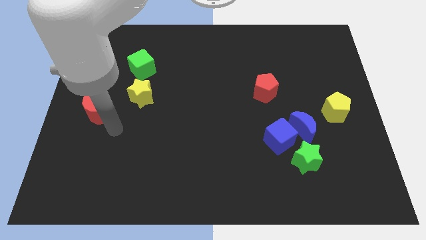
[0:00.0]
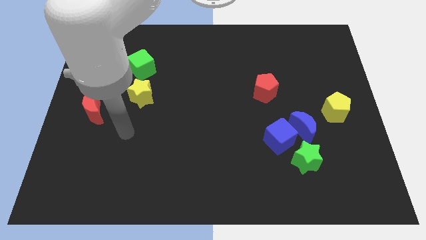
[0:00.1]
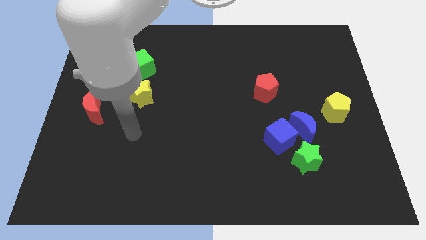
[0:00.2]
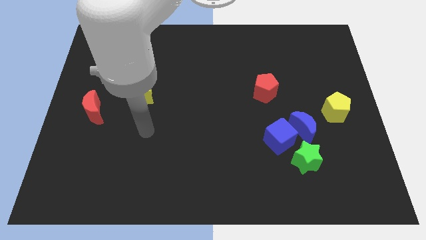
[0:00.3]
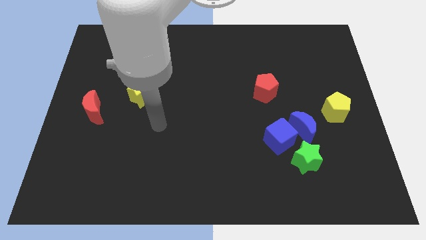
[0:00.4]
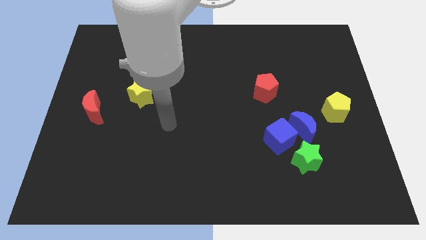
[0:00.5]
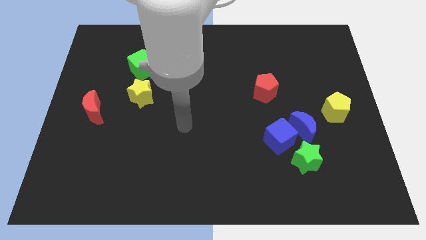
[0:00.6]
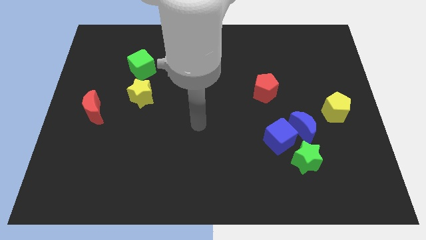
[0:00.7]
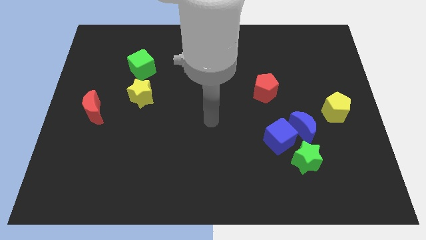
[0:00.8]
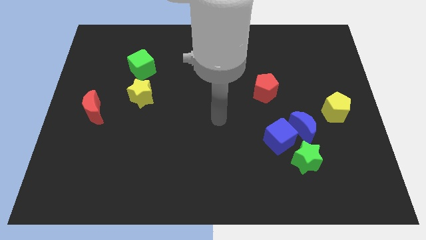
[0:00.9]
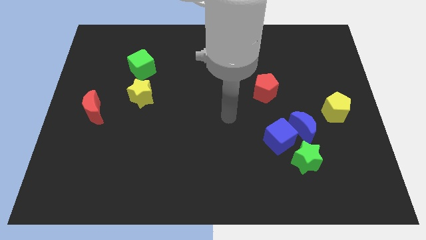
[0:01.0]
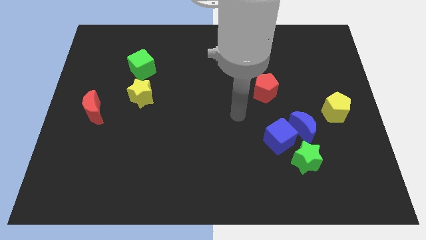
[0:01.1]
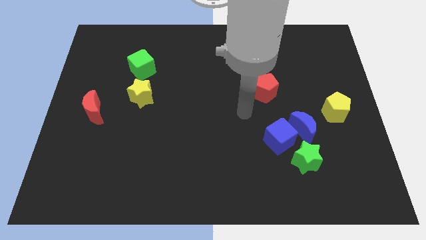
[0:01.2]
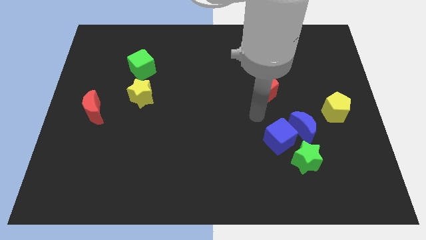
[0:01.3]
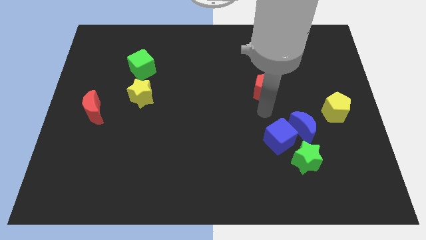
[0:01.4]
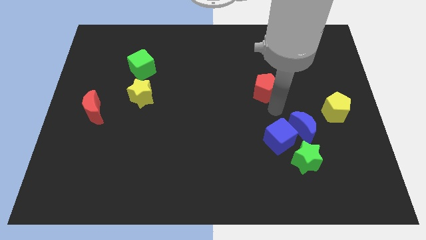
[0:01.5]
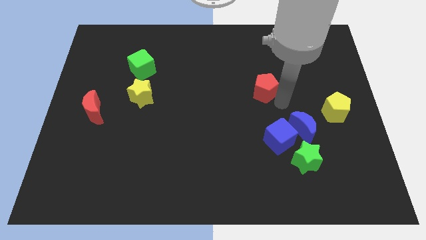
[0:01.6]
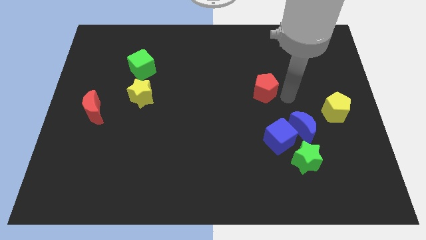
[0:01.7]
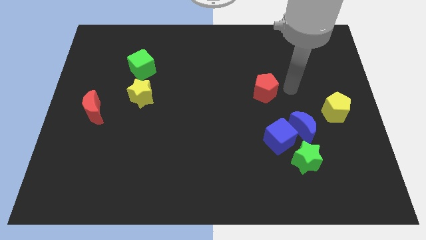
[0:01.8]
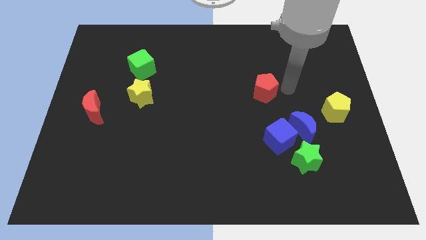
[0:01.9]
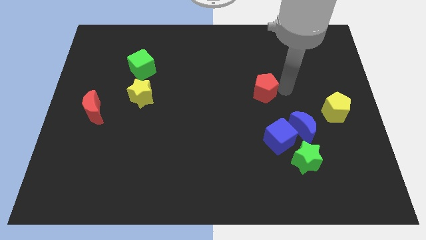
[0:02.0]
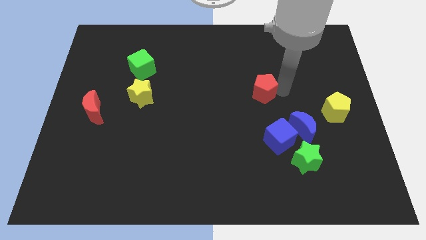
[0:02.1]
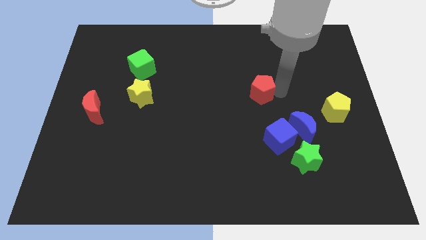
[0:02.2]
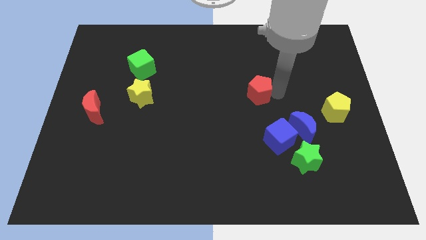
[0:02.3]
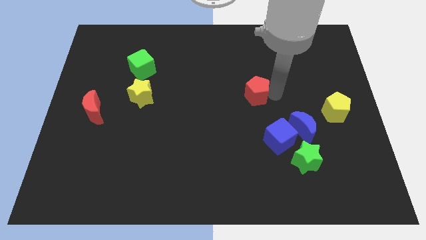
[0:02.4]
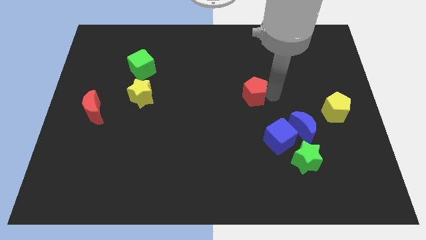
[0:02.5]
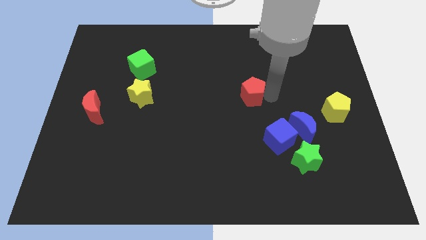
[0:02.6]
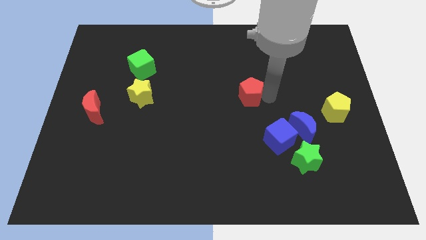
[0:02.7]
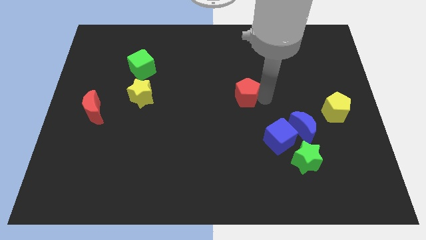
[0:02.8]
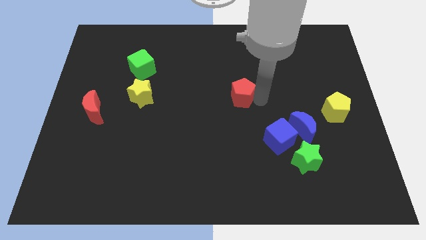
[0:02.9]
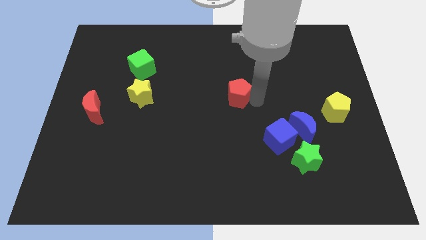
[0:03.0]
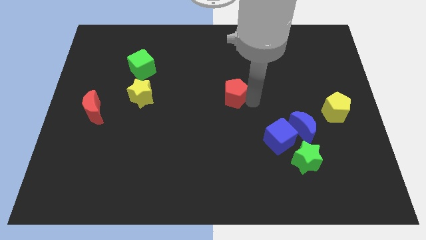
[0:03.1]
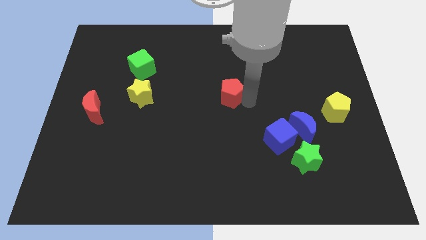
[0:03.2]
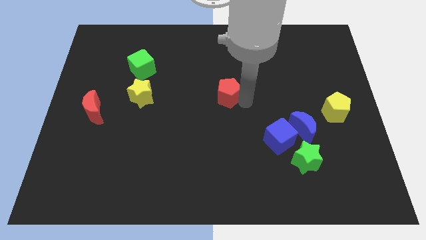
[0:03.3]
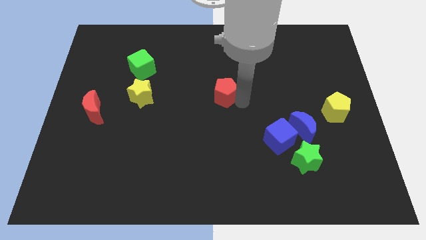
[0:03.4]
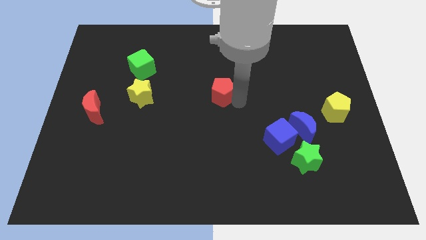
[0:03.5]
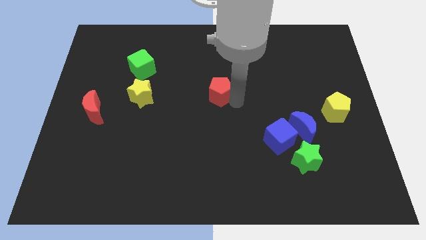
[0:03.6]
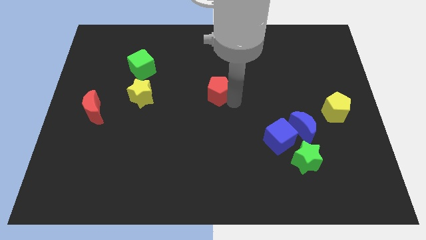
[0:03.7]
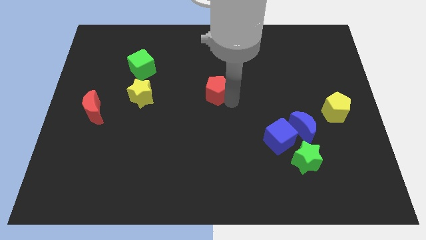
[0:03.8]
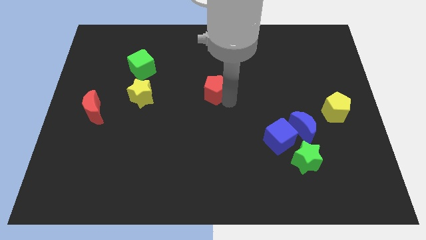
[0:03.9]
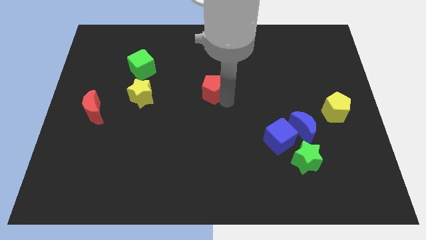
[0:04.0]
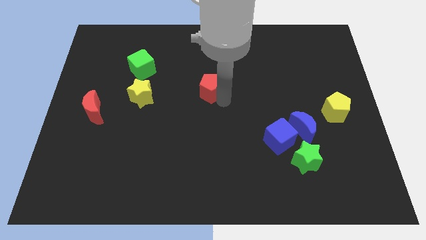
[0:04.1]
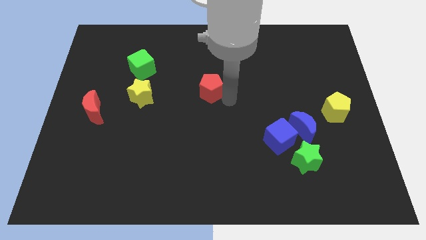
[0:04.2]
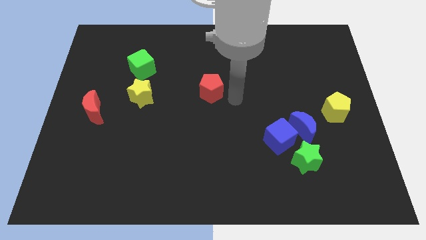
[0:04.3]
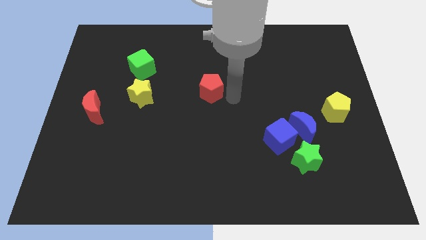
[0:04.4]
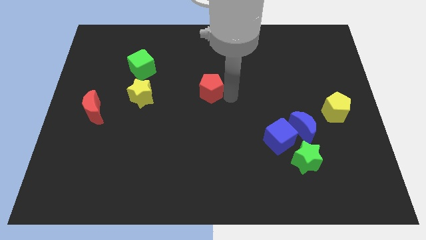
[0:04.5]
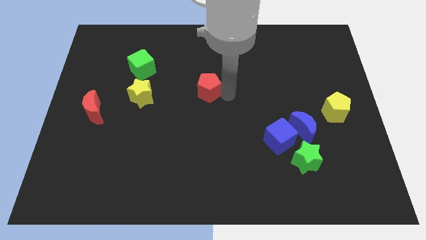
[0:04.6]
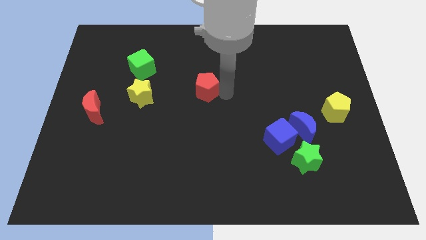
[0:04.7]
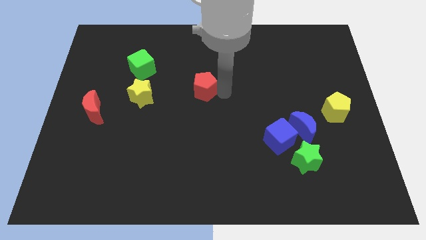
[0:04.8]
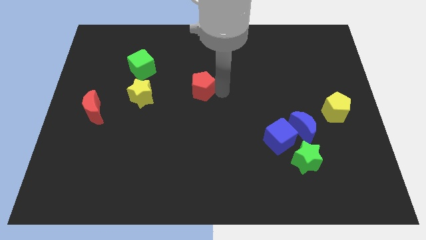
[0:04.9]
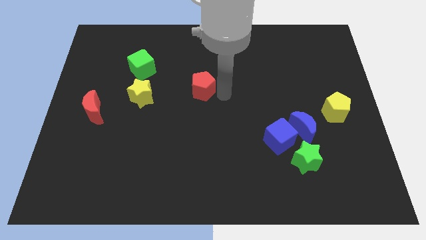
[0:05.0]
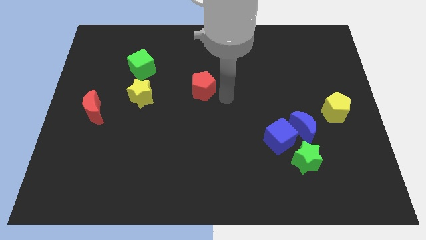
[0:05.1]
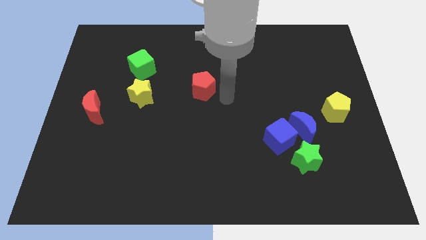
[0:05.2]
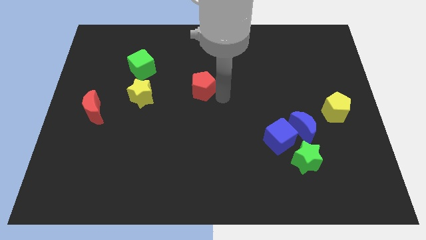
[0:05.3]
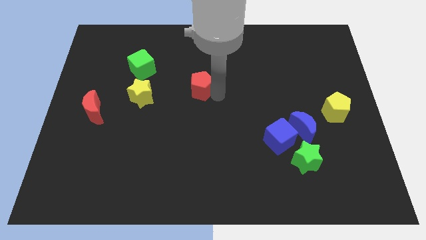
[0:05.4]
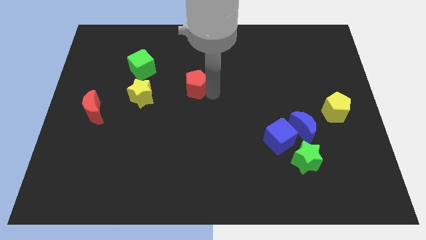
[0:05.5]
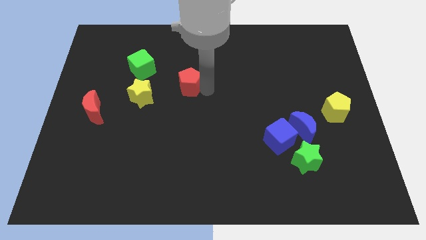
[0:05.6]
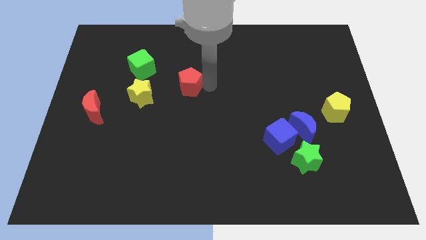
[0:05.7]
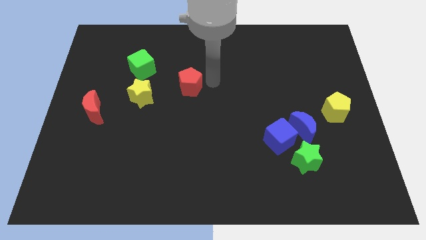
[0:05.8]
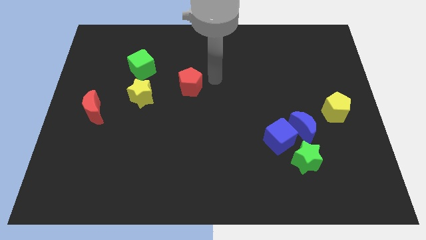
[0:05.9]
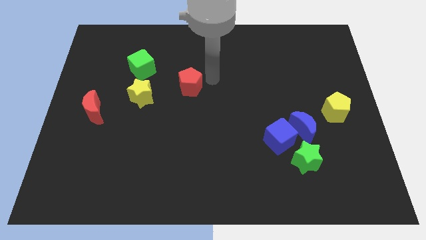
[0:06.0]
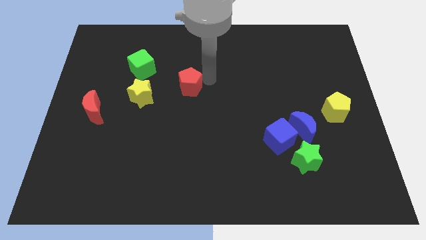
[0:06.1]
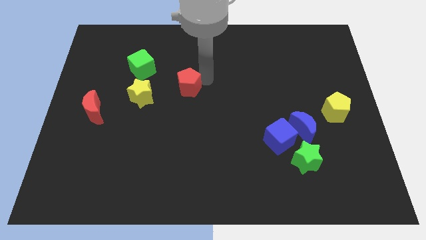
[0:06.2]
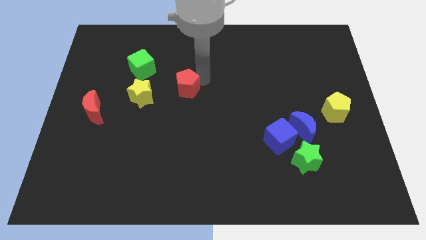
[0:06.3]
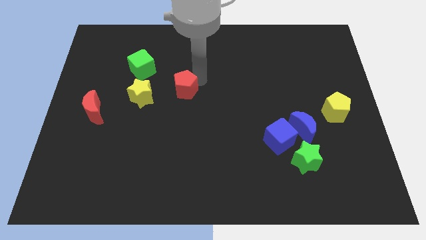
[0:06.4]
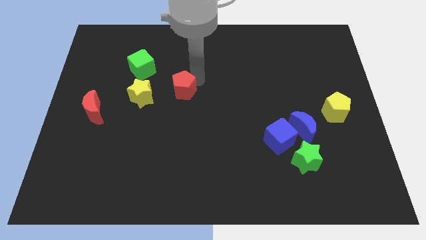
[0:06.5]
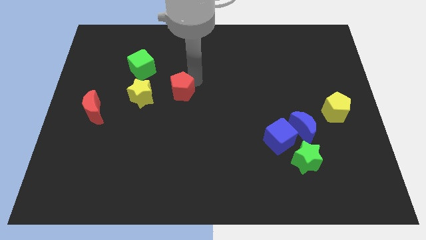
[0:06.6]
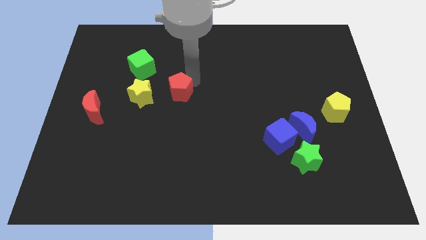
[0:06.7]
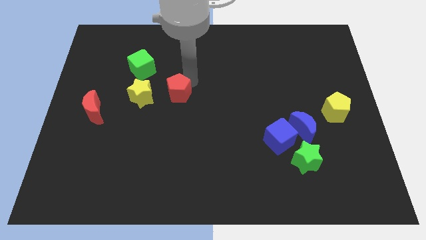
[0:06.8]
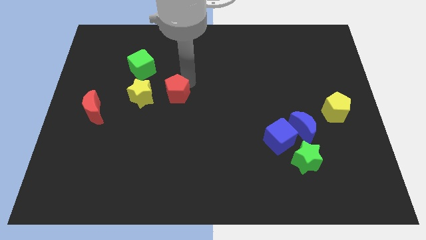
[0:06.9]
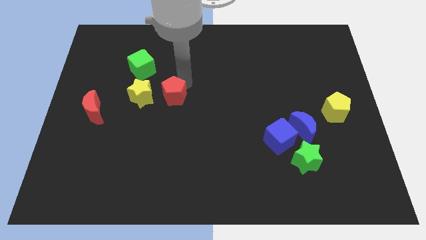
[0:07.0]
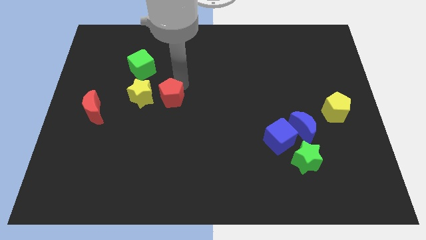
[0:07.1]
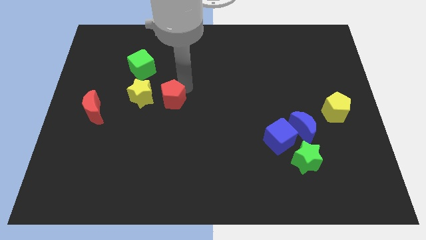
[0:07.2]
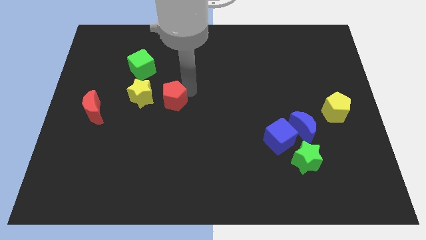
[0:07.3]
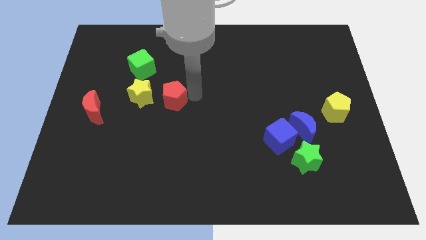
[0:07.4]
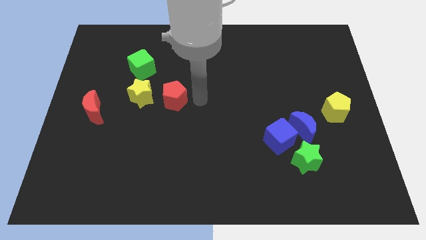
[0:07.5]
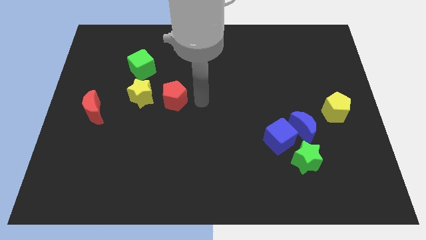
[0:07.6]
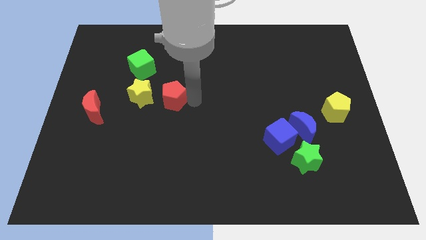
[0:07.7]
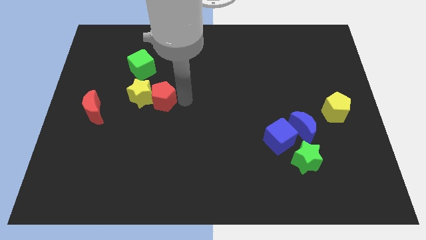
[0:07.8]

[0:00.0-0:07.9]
slide the red pentagon next to the yellow star

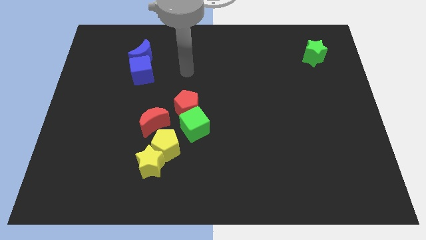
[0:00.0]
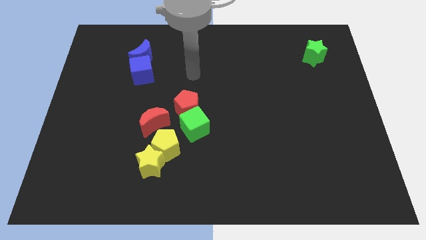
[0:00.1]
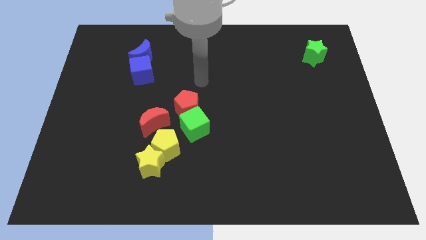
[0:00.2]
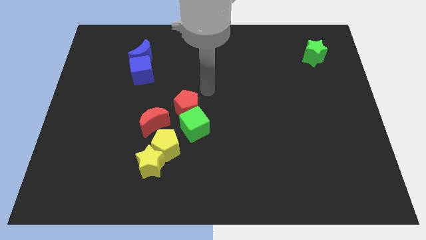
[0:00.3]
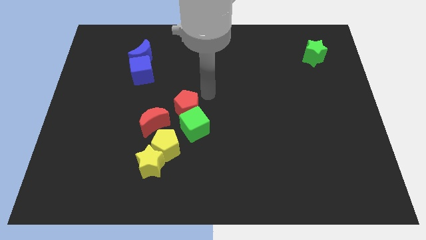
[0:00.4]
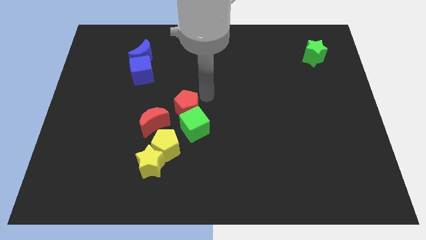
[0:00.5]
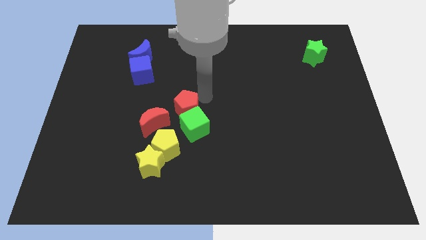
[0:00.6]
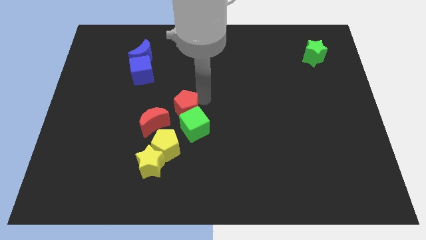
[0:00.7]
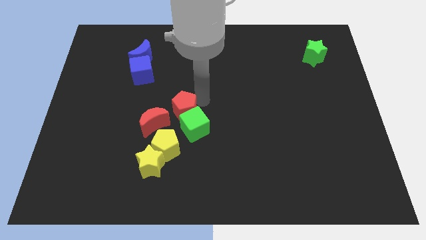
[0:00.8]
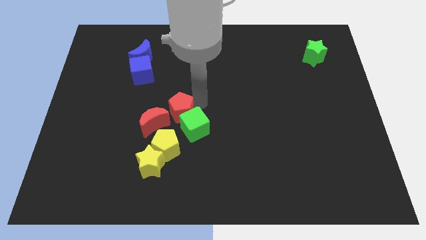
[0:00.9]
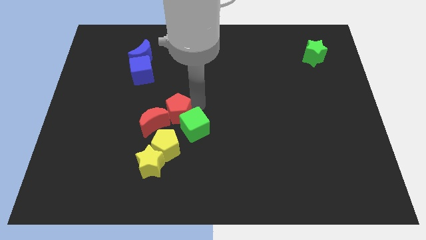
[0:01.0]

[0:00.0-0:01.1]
slide the red pentagon close to the red moon
